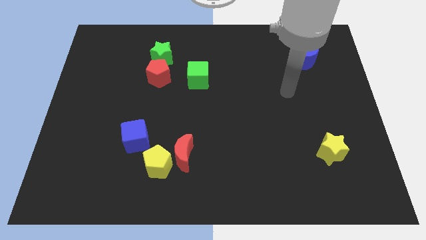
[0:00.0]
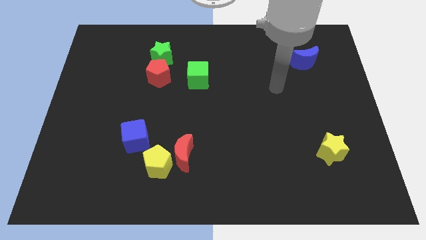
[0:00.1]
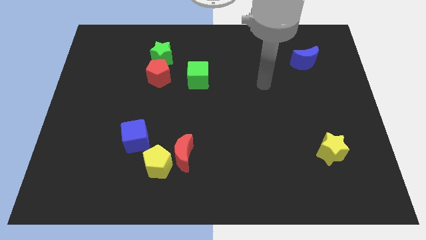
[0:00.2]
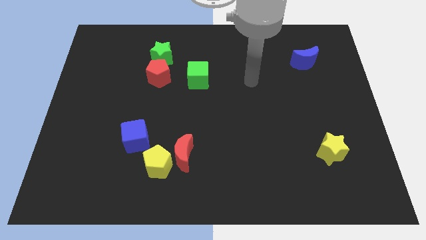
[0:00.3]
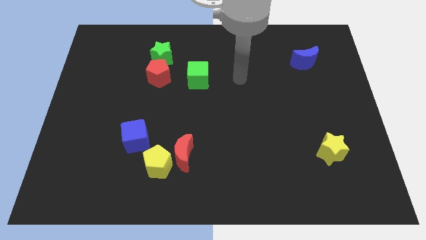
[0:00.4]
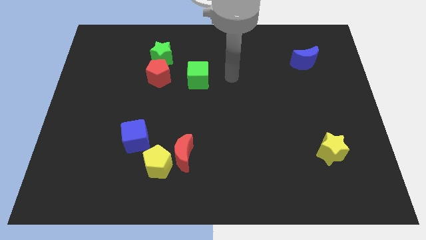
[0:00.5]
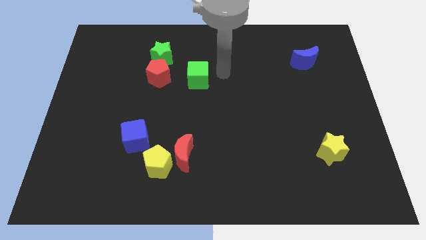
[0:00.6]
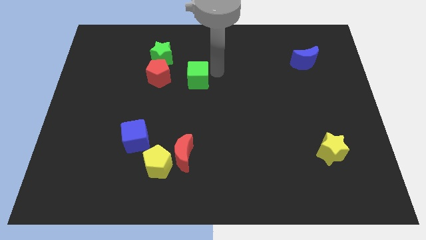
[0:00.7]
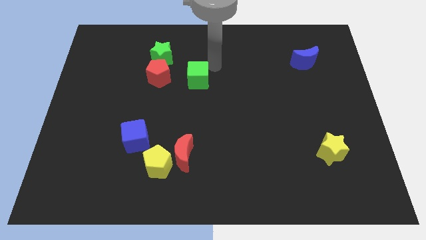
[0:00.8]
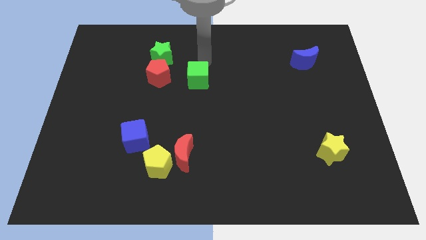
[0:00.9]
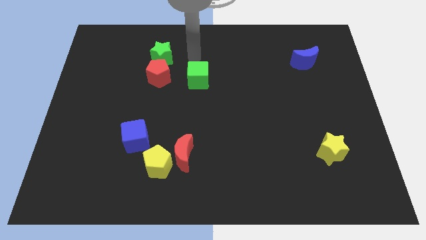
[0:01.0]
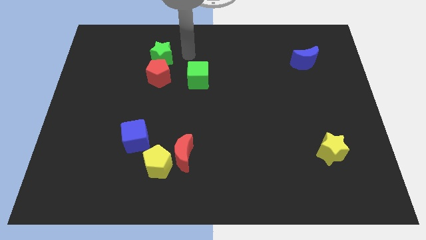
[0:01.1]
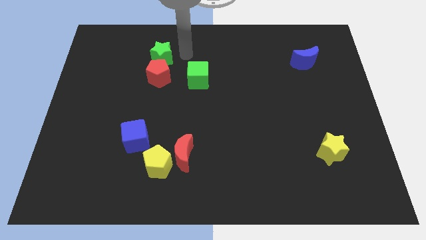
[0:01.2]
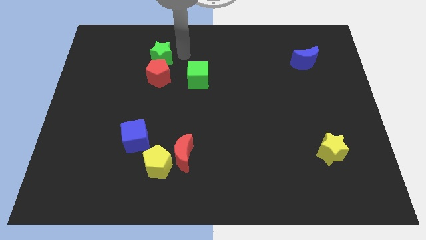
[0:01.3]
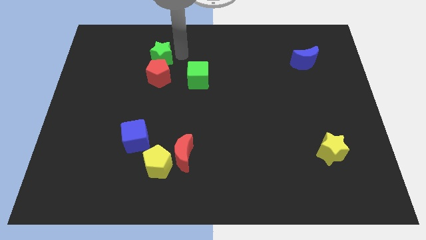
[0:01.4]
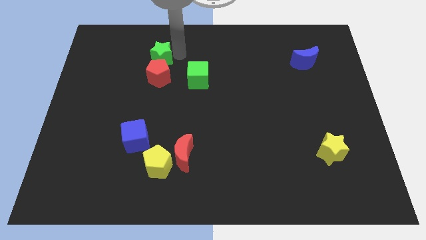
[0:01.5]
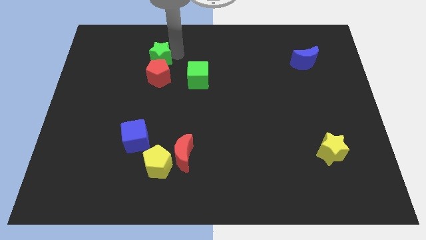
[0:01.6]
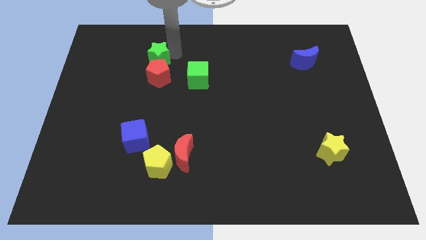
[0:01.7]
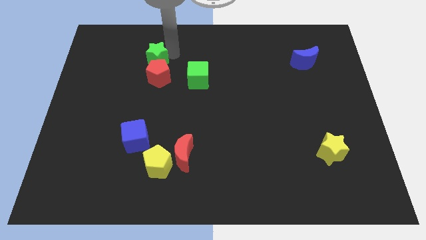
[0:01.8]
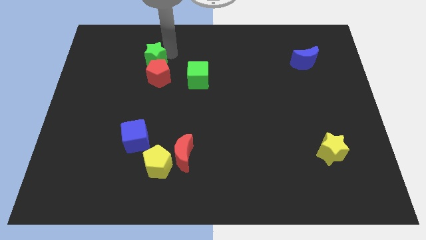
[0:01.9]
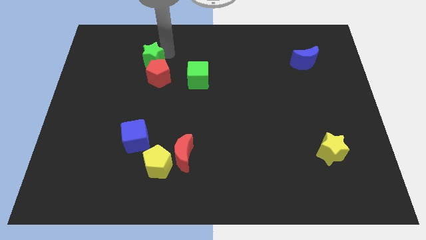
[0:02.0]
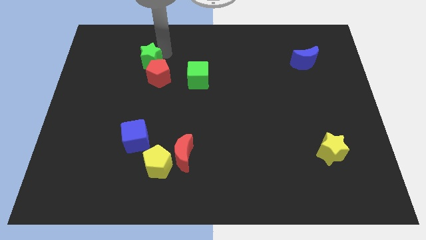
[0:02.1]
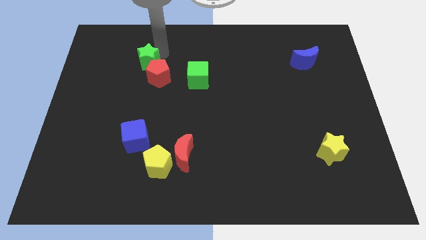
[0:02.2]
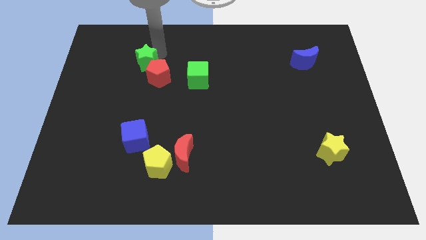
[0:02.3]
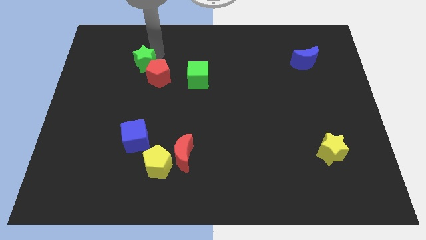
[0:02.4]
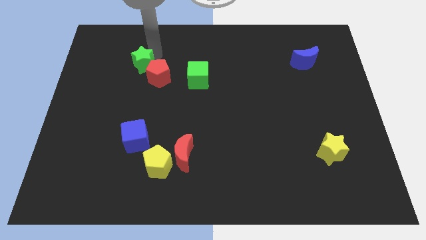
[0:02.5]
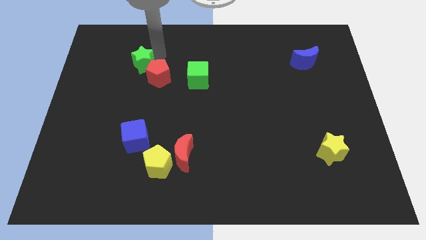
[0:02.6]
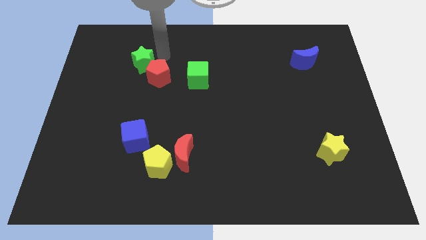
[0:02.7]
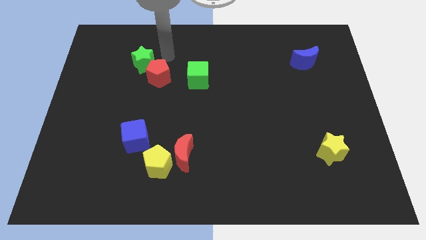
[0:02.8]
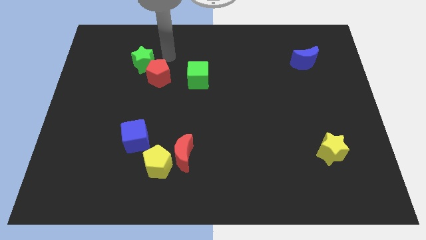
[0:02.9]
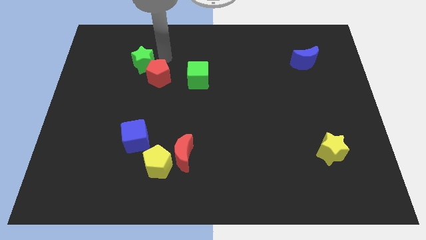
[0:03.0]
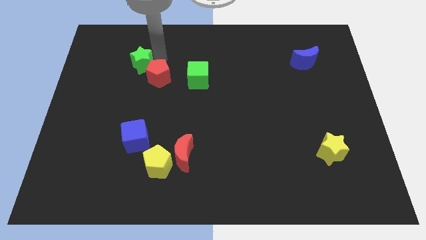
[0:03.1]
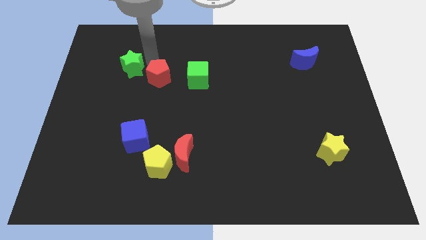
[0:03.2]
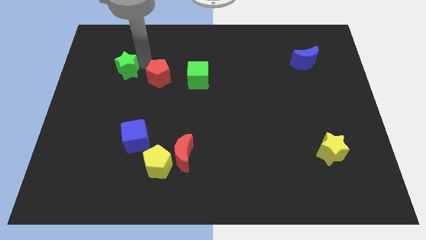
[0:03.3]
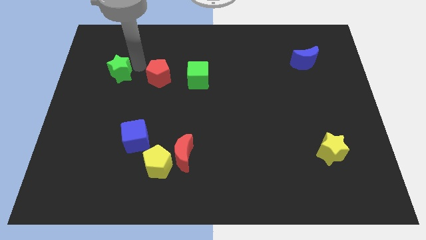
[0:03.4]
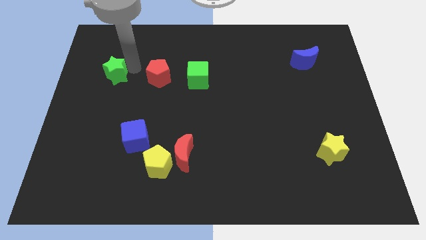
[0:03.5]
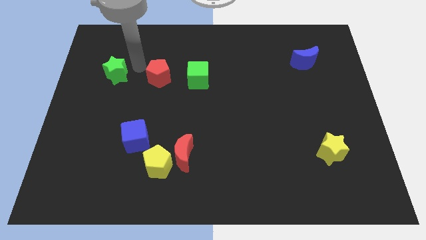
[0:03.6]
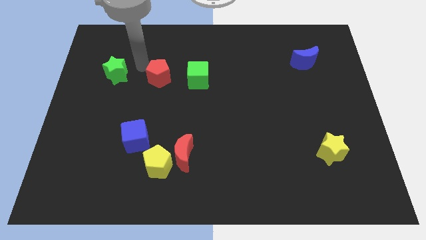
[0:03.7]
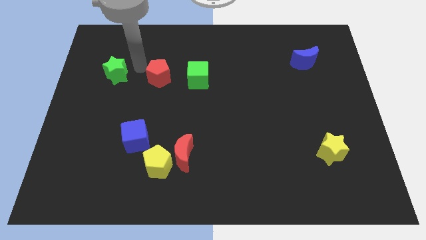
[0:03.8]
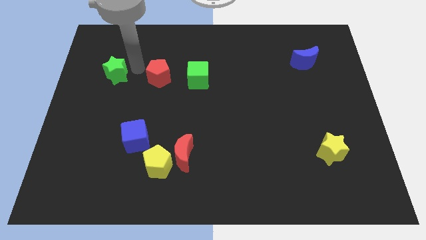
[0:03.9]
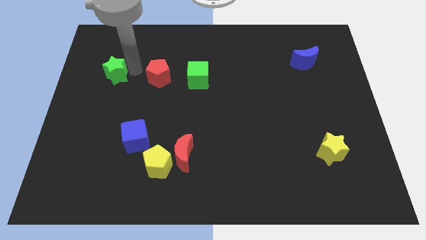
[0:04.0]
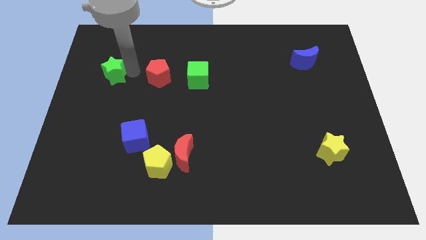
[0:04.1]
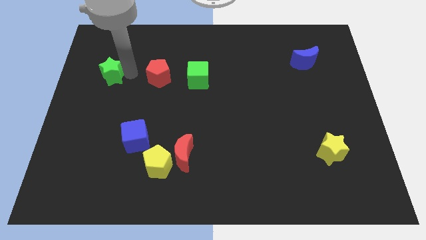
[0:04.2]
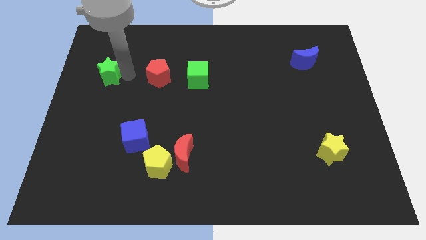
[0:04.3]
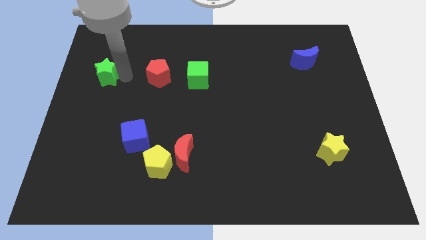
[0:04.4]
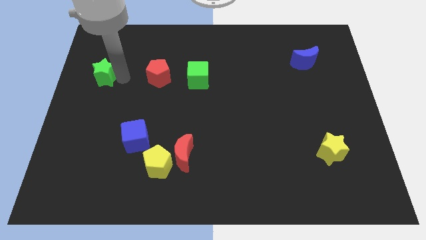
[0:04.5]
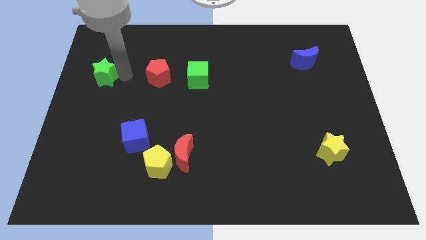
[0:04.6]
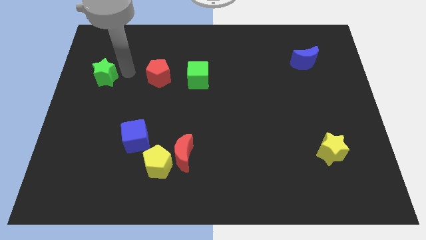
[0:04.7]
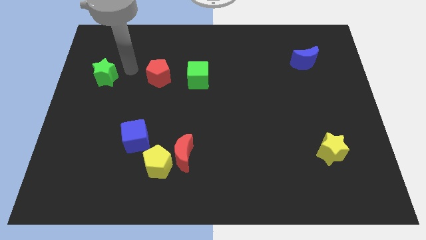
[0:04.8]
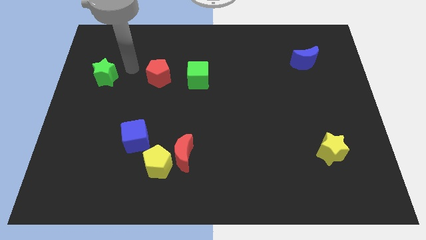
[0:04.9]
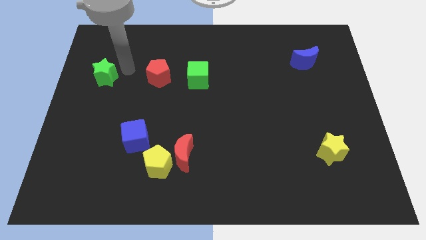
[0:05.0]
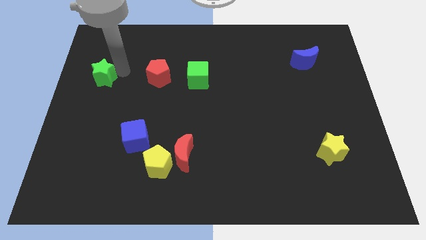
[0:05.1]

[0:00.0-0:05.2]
slide the green star to the left side
